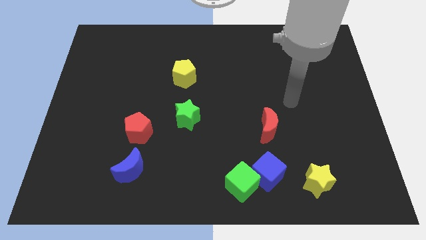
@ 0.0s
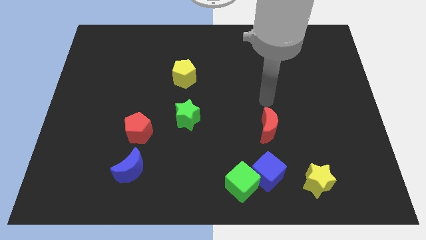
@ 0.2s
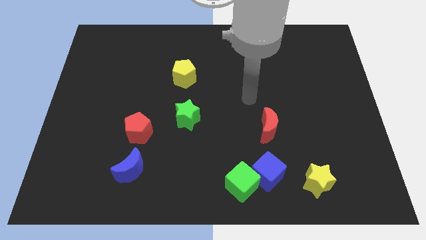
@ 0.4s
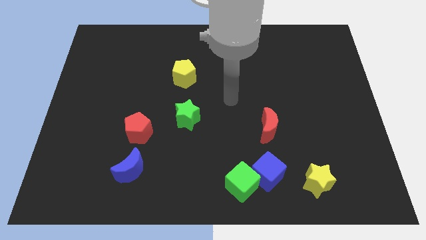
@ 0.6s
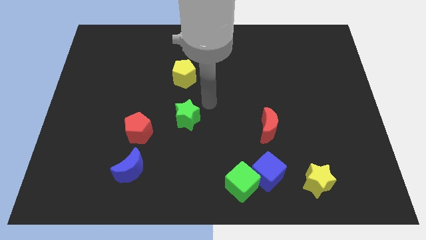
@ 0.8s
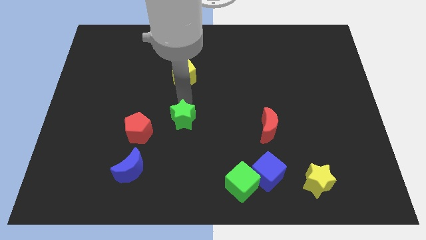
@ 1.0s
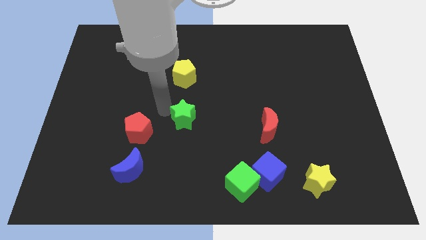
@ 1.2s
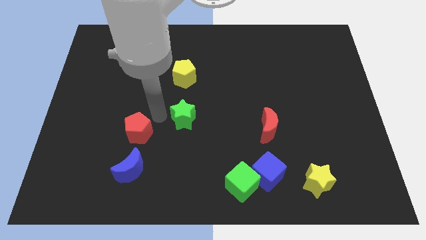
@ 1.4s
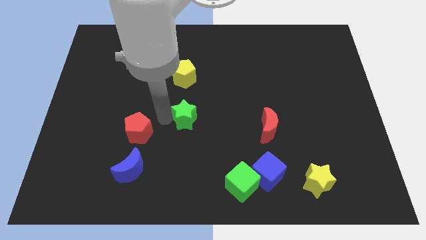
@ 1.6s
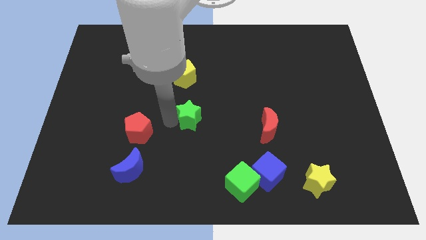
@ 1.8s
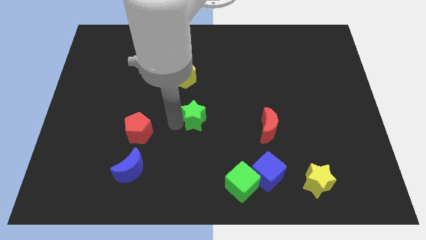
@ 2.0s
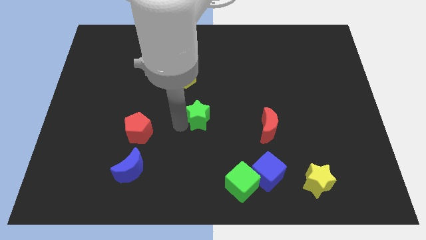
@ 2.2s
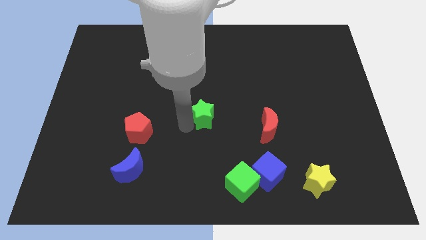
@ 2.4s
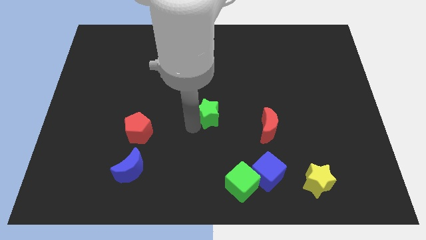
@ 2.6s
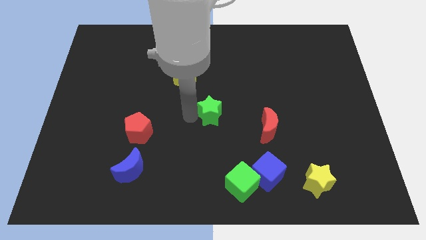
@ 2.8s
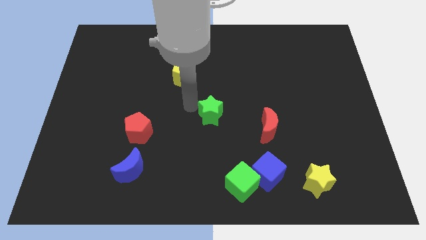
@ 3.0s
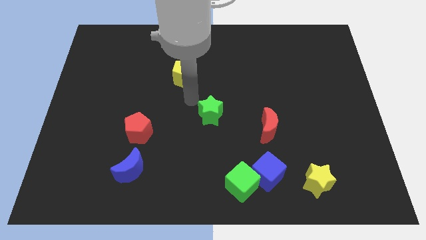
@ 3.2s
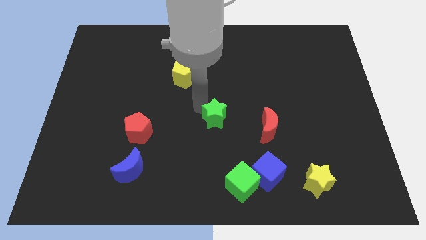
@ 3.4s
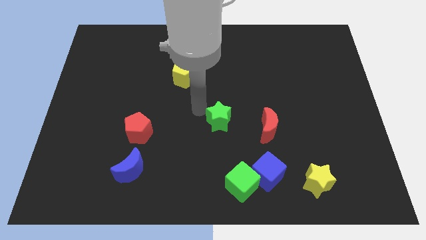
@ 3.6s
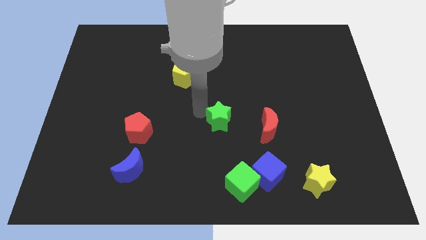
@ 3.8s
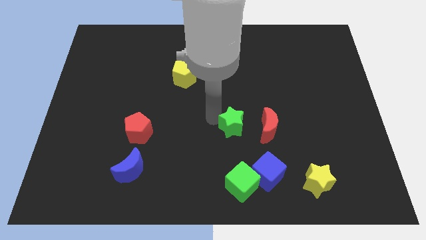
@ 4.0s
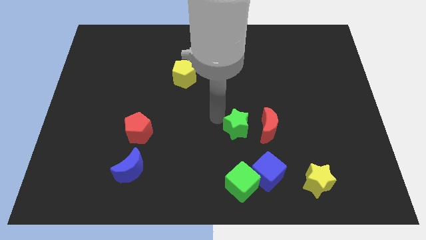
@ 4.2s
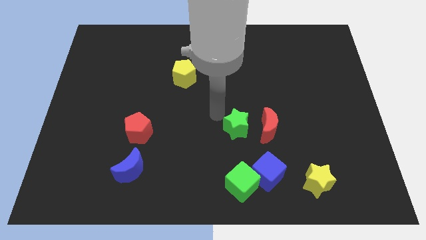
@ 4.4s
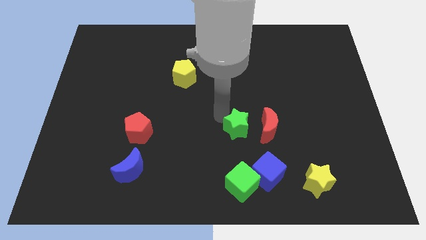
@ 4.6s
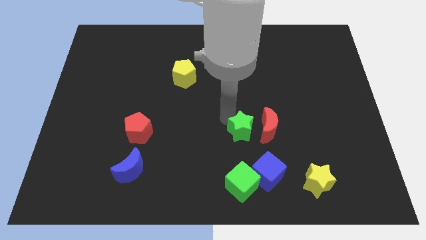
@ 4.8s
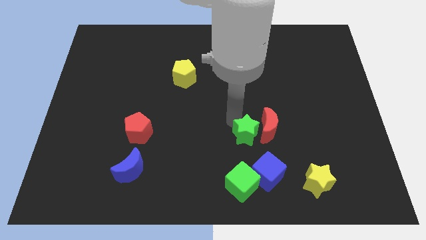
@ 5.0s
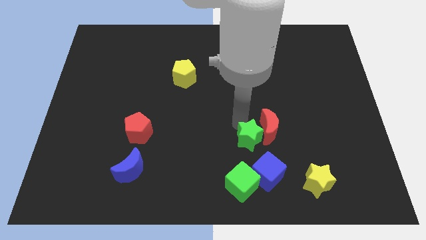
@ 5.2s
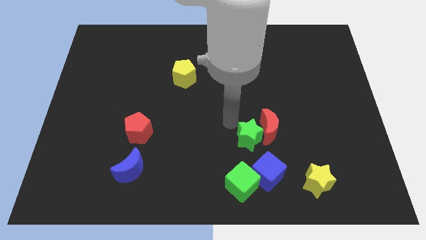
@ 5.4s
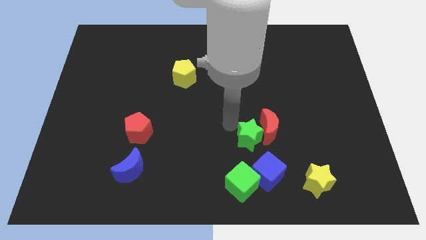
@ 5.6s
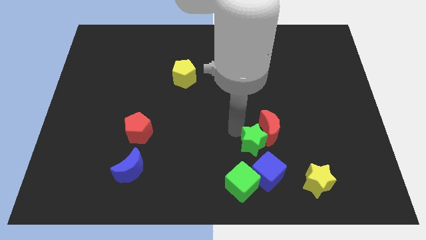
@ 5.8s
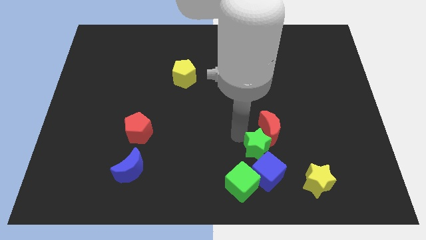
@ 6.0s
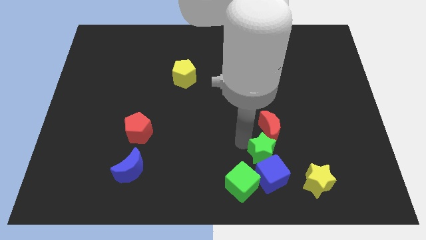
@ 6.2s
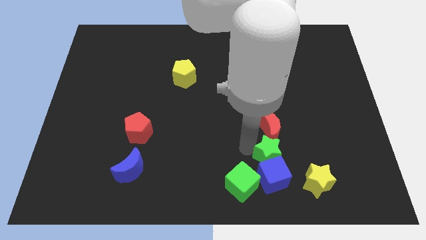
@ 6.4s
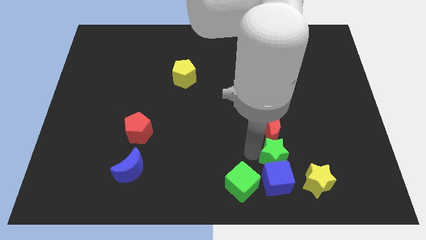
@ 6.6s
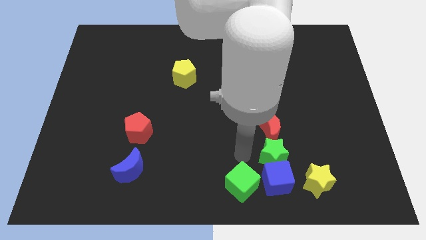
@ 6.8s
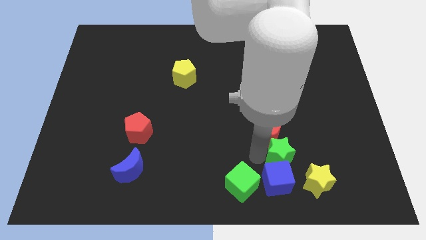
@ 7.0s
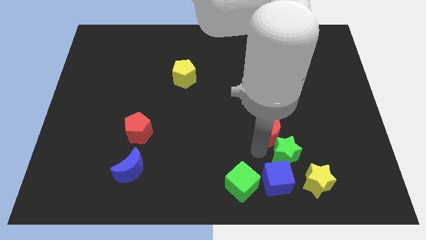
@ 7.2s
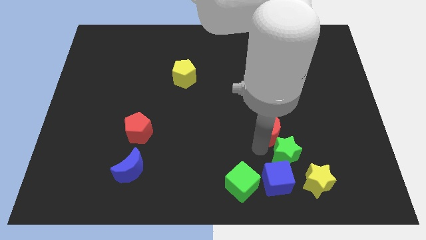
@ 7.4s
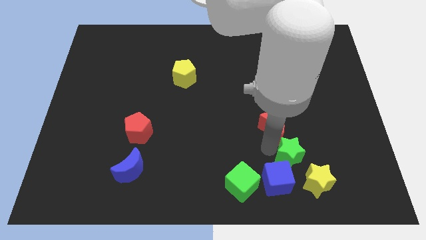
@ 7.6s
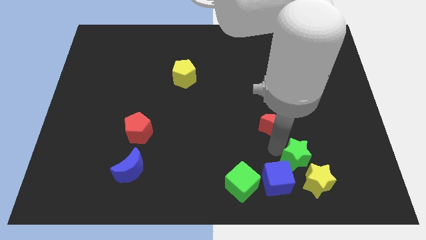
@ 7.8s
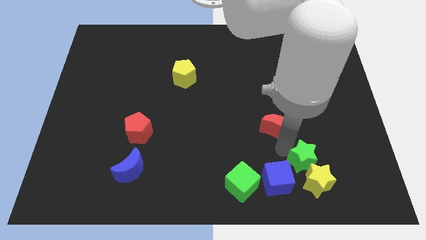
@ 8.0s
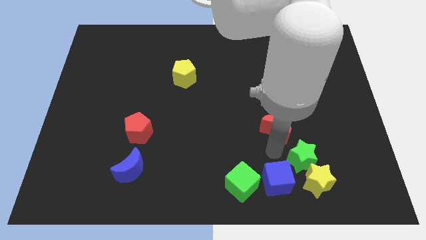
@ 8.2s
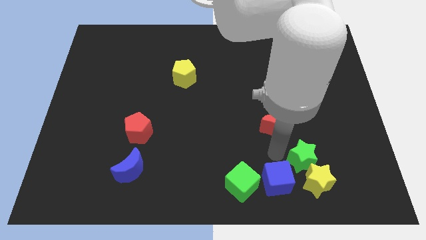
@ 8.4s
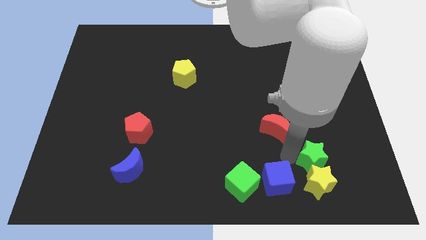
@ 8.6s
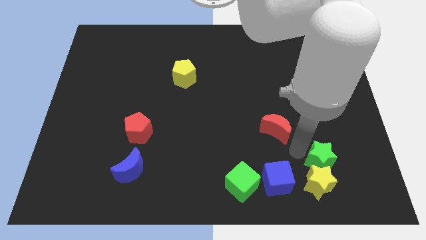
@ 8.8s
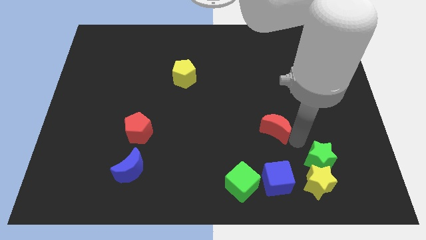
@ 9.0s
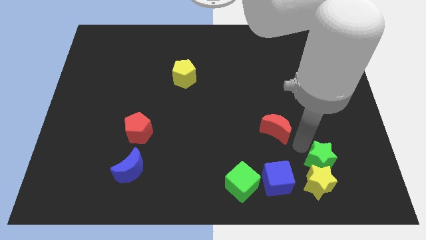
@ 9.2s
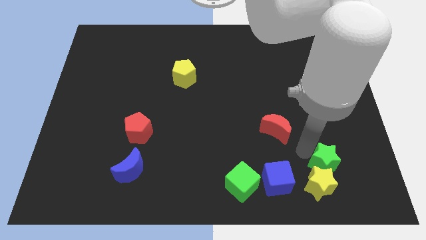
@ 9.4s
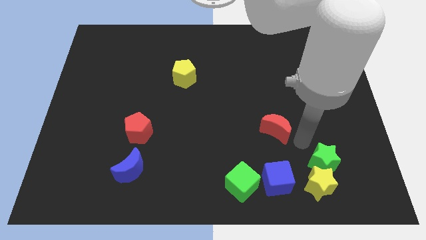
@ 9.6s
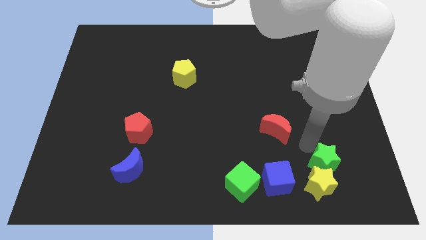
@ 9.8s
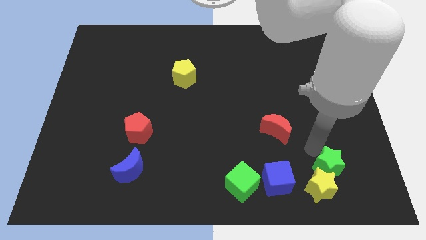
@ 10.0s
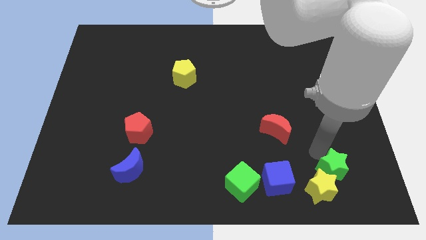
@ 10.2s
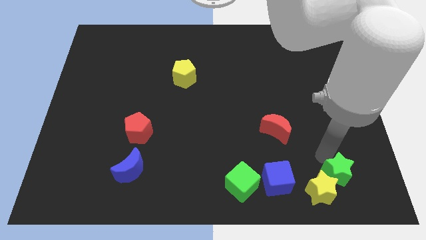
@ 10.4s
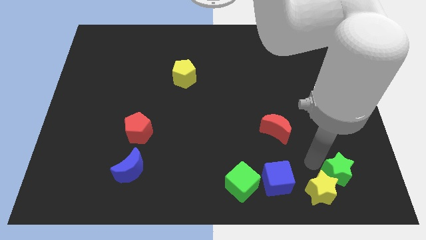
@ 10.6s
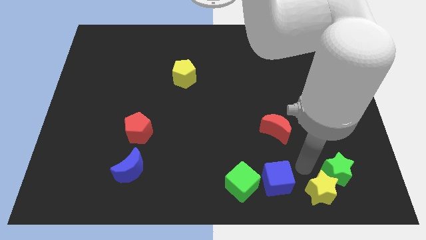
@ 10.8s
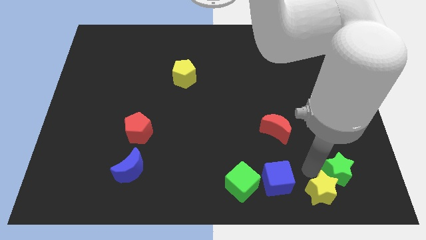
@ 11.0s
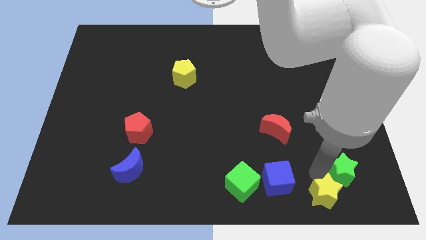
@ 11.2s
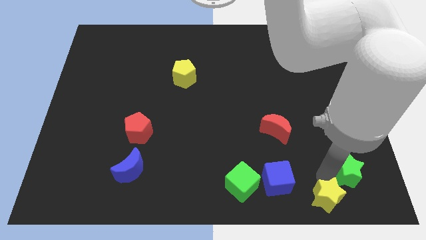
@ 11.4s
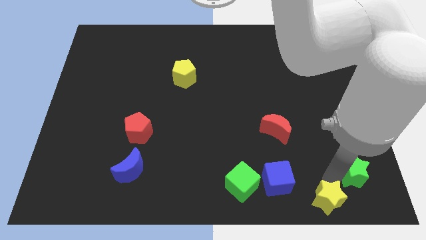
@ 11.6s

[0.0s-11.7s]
push the green star to the bottom right

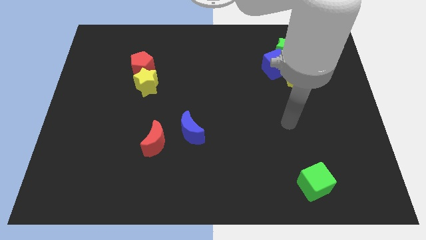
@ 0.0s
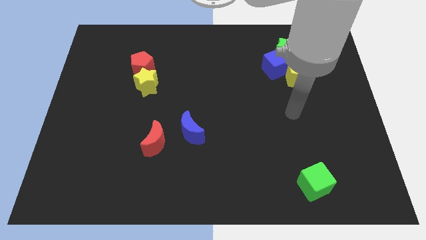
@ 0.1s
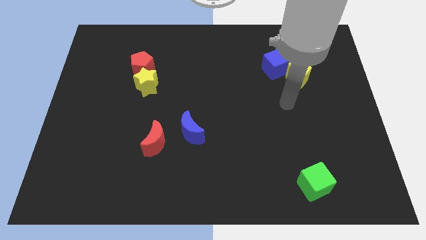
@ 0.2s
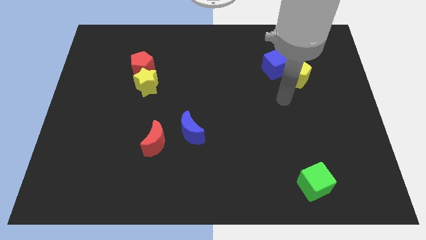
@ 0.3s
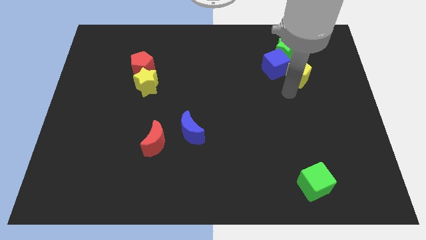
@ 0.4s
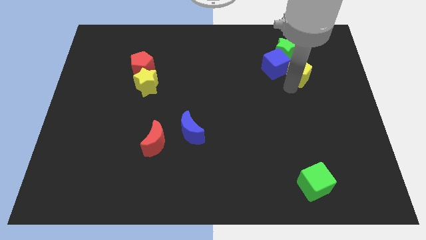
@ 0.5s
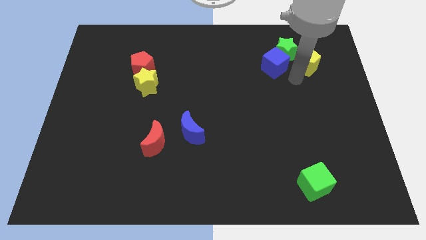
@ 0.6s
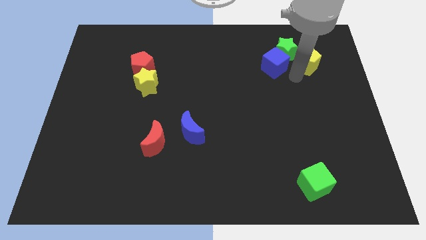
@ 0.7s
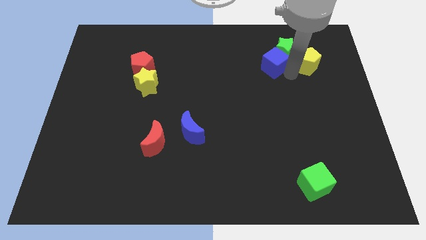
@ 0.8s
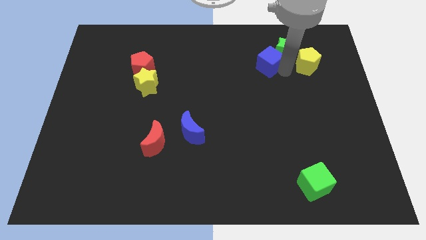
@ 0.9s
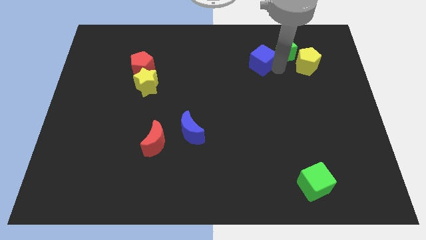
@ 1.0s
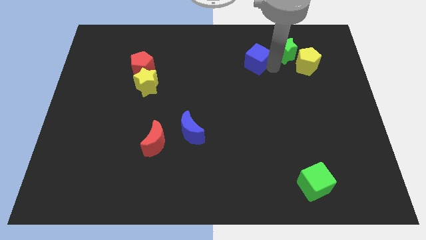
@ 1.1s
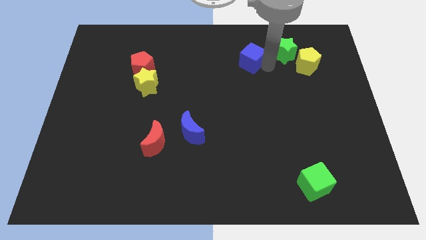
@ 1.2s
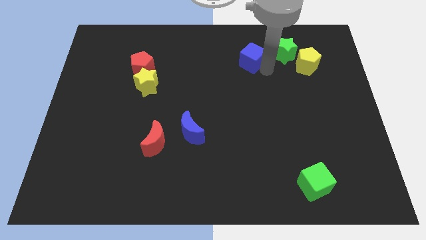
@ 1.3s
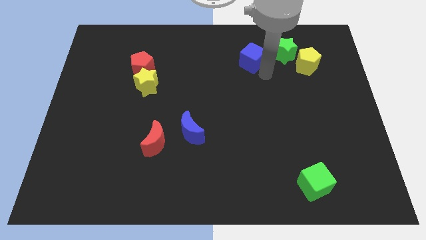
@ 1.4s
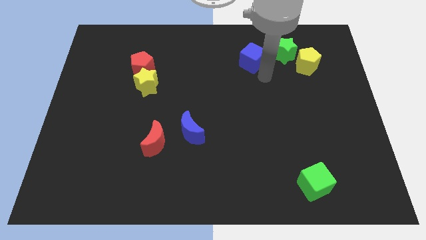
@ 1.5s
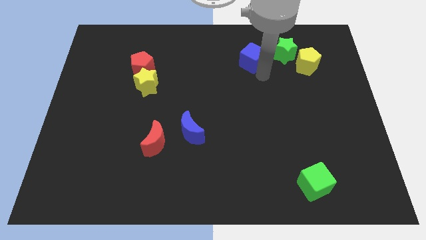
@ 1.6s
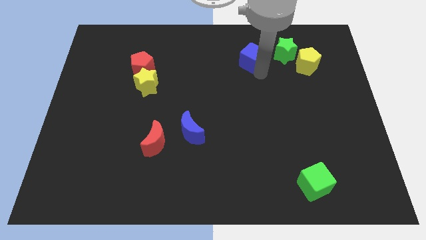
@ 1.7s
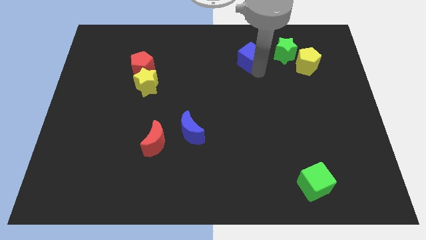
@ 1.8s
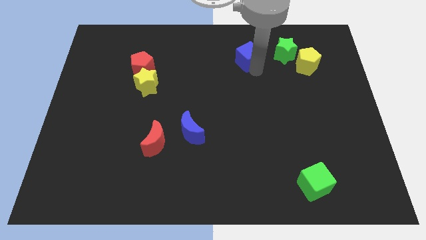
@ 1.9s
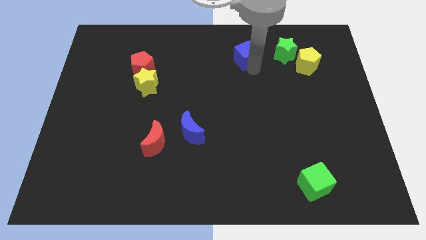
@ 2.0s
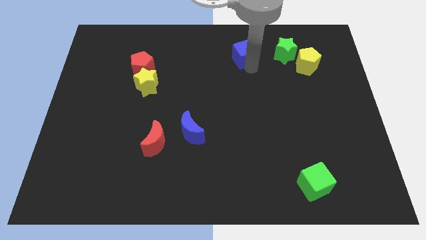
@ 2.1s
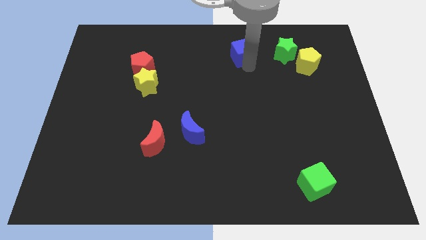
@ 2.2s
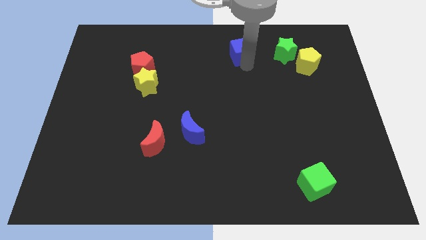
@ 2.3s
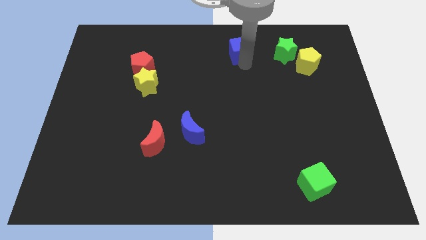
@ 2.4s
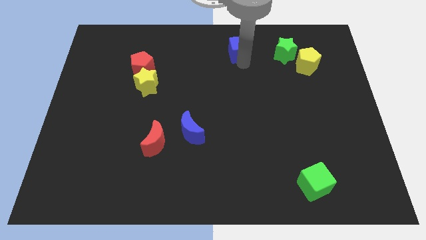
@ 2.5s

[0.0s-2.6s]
put the blue cube to the top side
